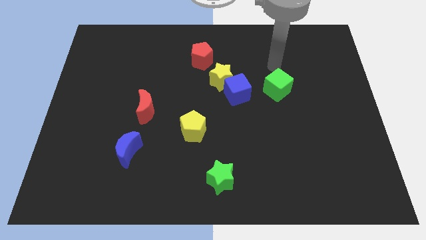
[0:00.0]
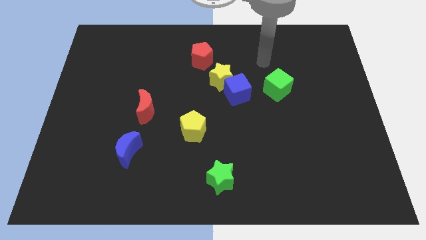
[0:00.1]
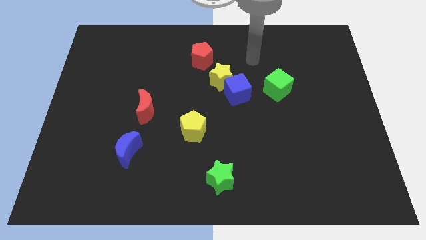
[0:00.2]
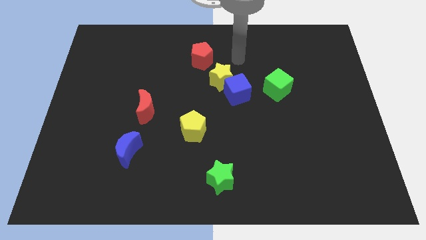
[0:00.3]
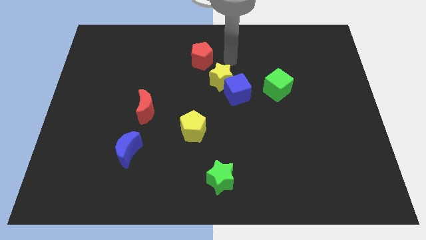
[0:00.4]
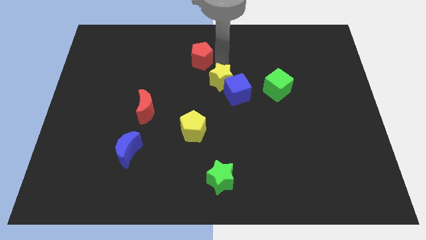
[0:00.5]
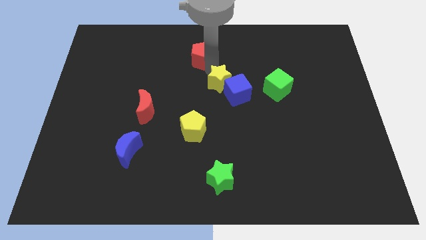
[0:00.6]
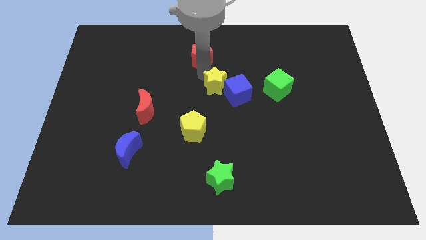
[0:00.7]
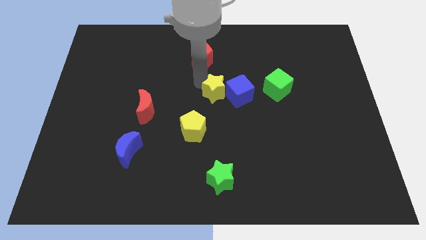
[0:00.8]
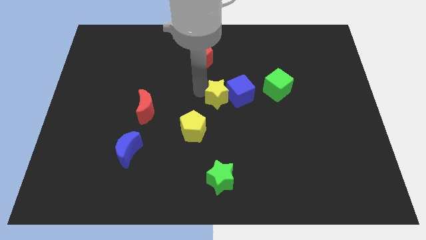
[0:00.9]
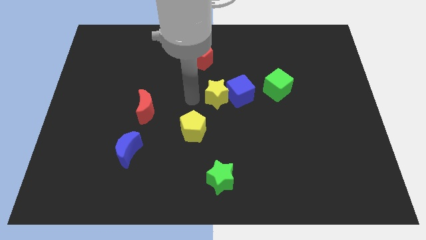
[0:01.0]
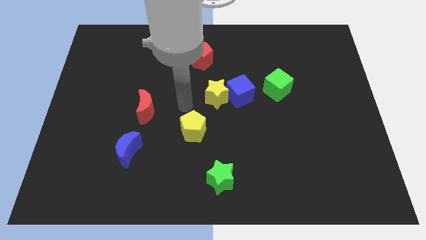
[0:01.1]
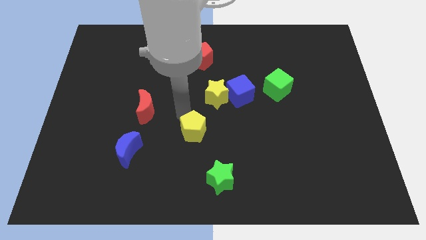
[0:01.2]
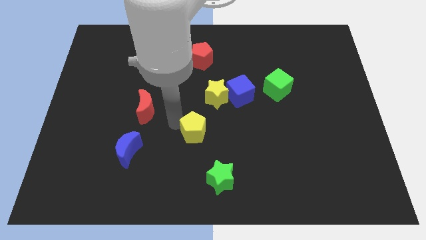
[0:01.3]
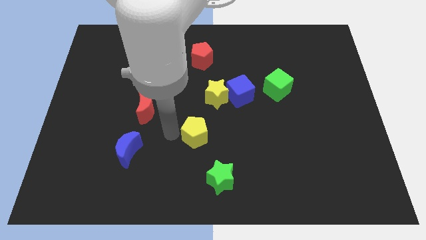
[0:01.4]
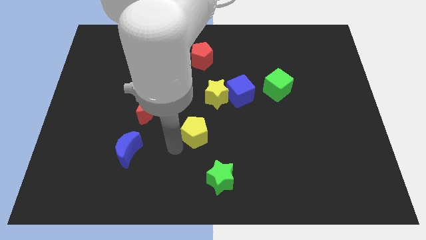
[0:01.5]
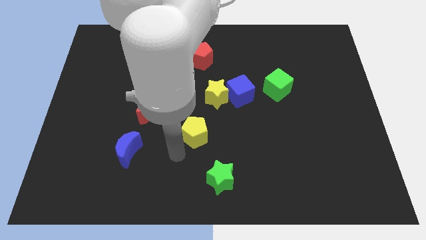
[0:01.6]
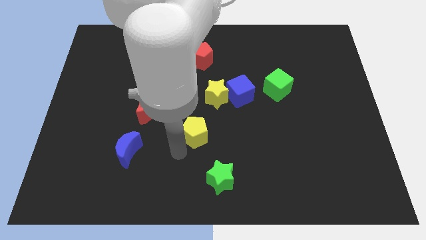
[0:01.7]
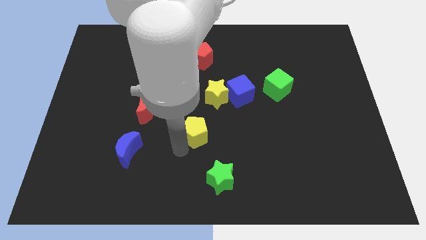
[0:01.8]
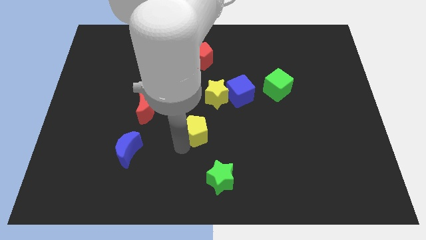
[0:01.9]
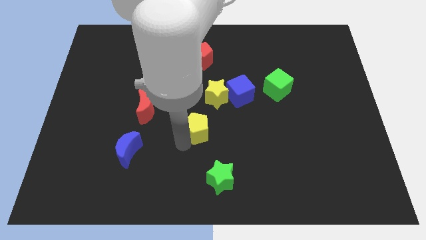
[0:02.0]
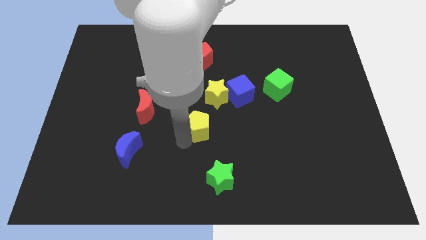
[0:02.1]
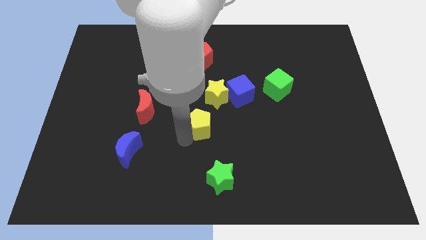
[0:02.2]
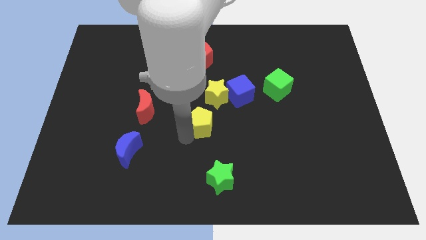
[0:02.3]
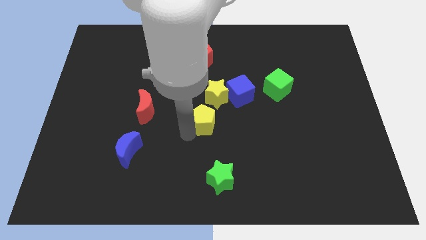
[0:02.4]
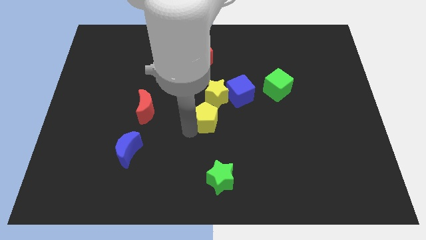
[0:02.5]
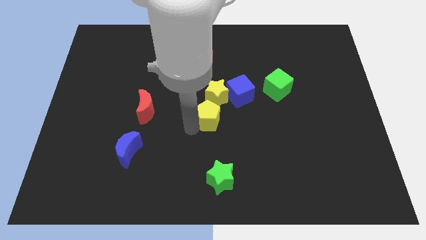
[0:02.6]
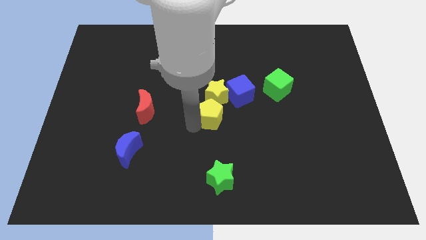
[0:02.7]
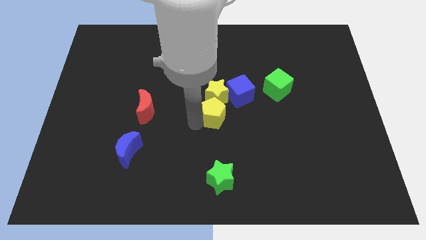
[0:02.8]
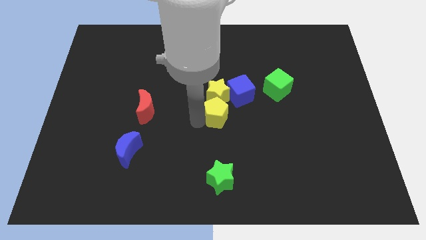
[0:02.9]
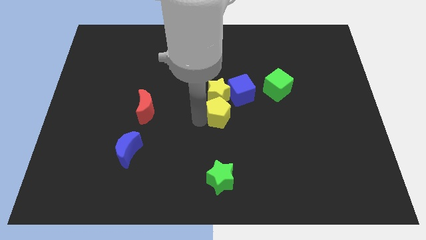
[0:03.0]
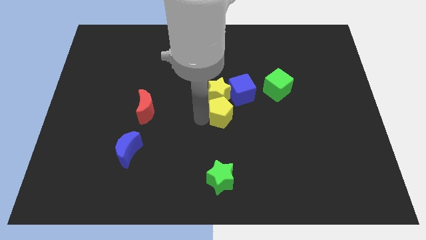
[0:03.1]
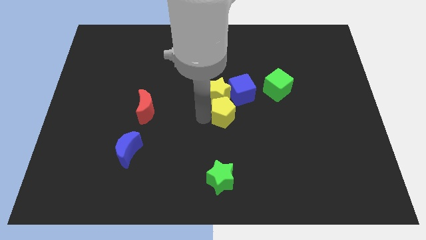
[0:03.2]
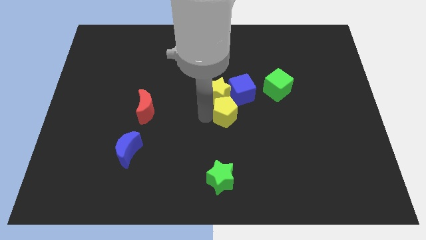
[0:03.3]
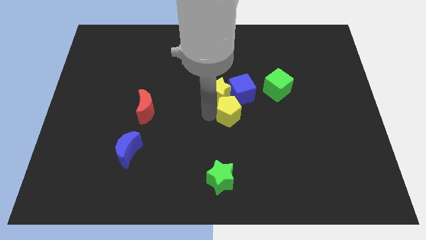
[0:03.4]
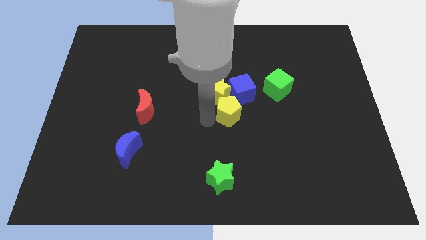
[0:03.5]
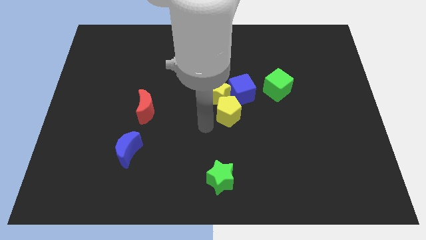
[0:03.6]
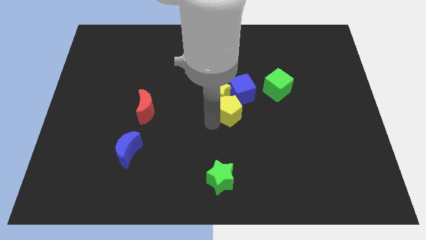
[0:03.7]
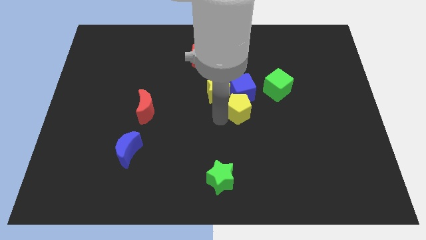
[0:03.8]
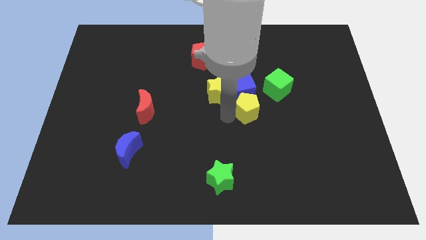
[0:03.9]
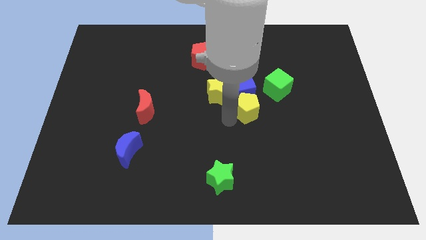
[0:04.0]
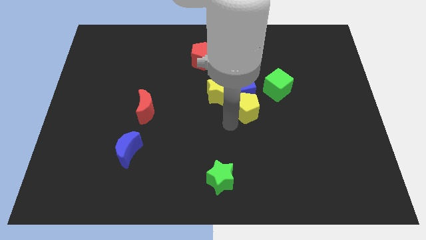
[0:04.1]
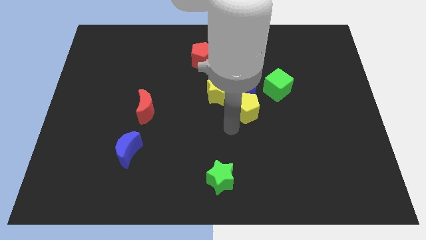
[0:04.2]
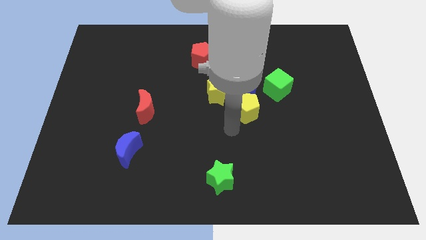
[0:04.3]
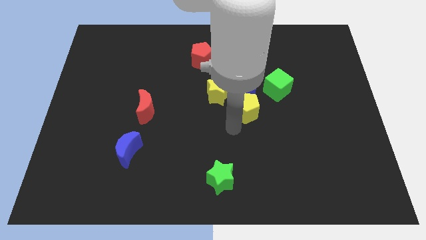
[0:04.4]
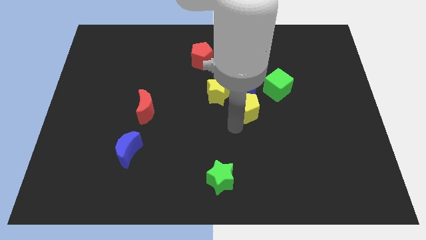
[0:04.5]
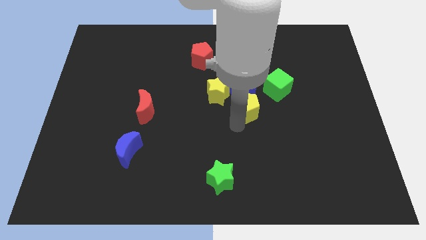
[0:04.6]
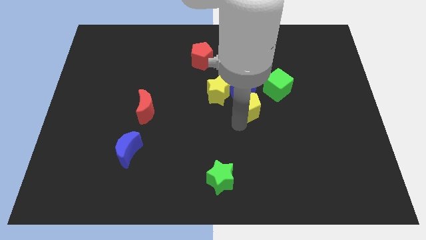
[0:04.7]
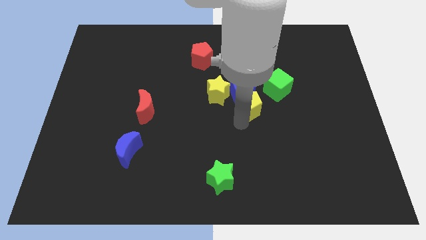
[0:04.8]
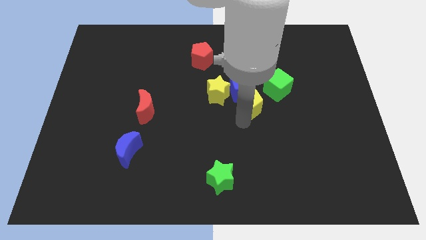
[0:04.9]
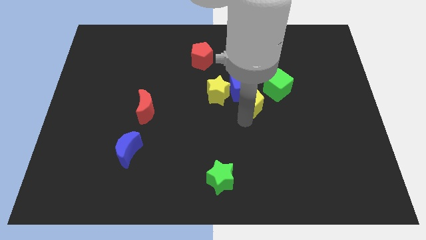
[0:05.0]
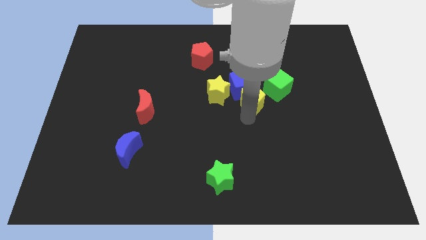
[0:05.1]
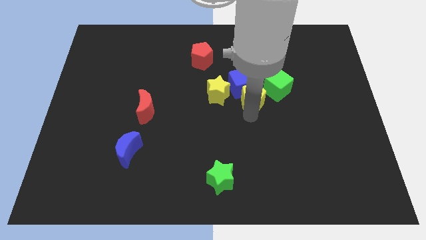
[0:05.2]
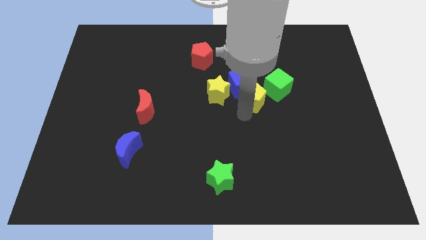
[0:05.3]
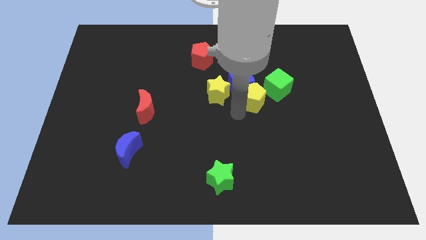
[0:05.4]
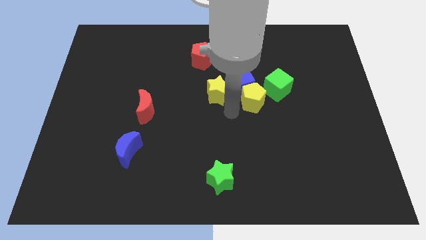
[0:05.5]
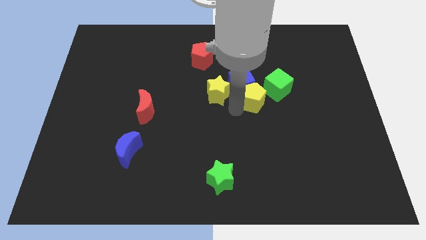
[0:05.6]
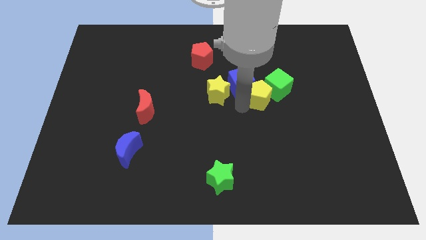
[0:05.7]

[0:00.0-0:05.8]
move the yellow pentagon towards the green cube

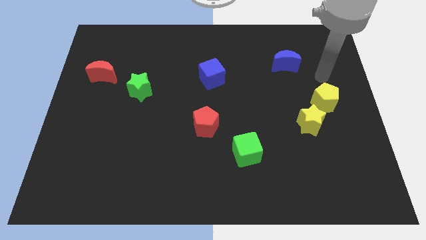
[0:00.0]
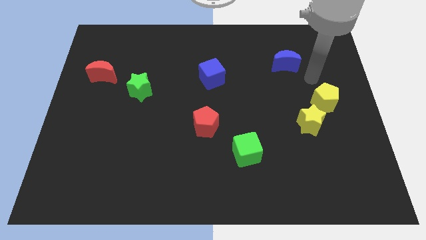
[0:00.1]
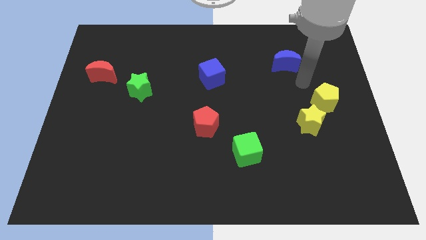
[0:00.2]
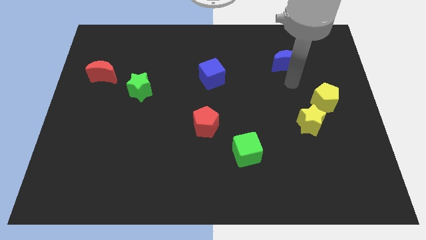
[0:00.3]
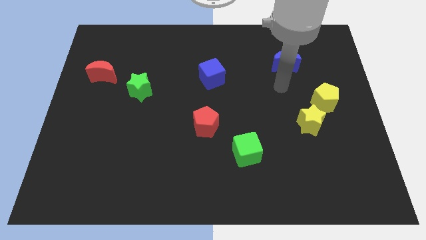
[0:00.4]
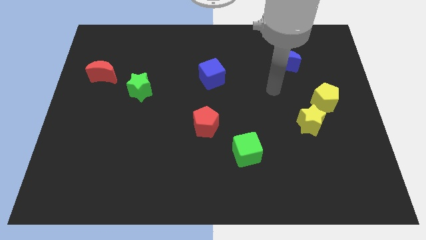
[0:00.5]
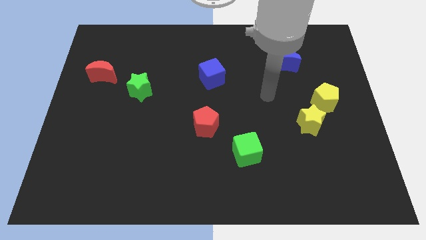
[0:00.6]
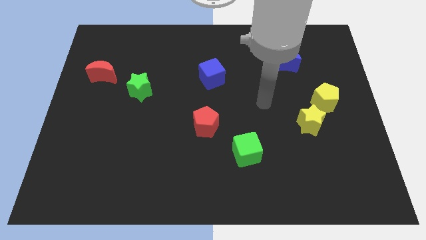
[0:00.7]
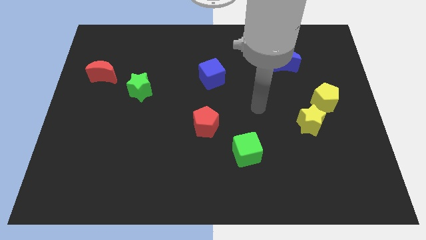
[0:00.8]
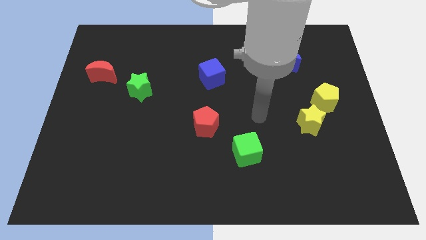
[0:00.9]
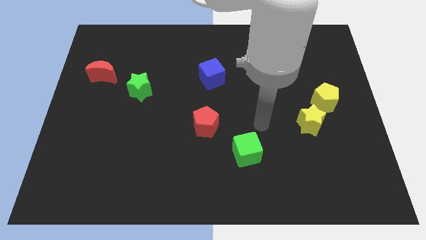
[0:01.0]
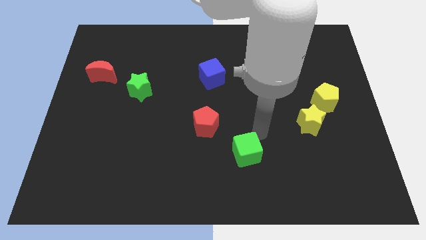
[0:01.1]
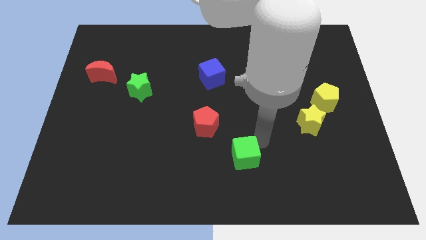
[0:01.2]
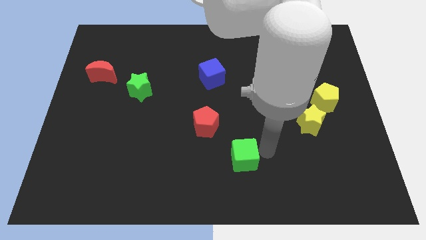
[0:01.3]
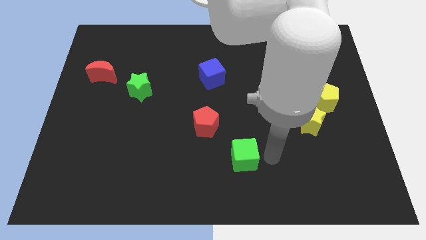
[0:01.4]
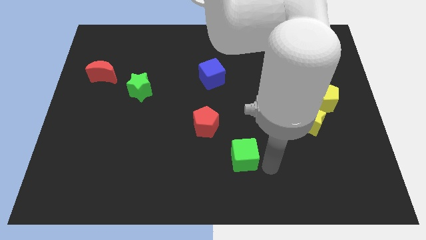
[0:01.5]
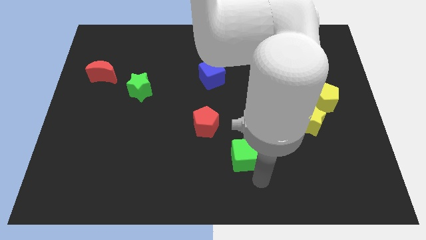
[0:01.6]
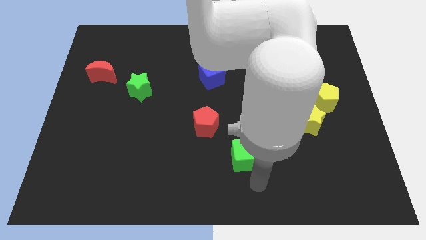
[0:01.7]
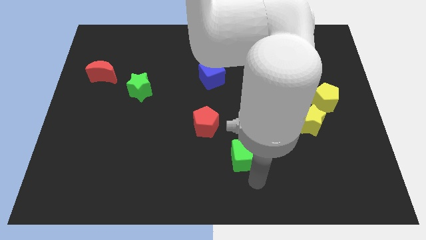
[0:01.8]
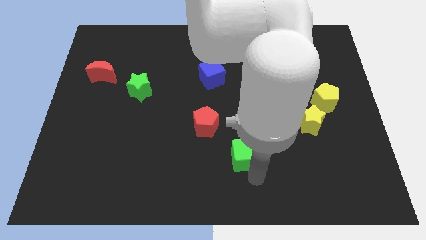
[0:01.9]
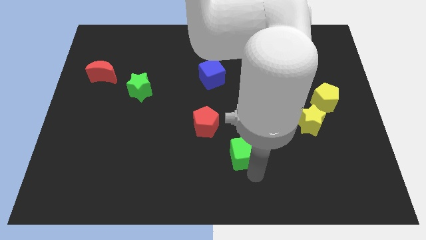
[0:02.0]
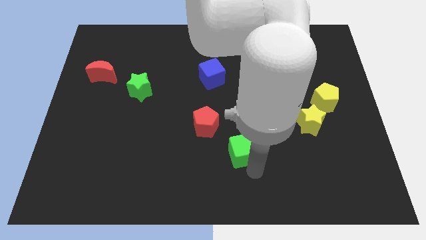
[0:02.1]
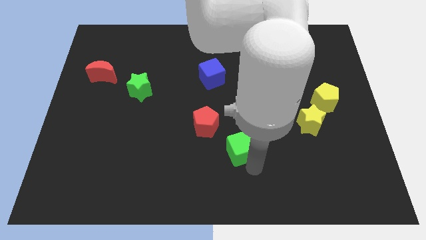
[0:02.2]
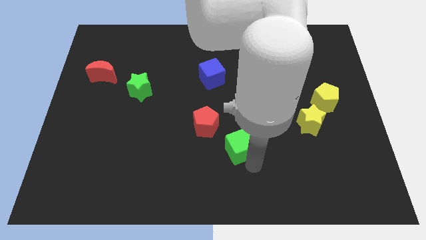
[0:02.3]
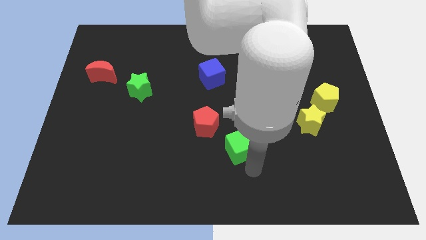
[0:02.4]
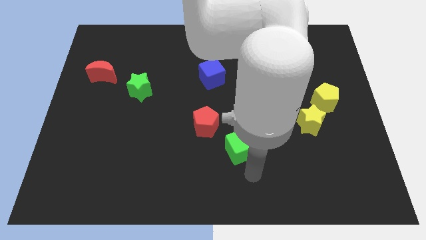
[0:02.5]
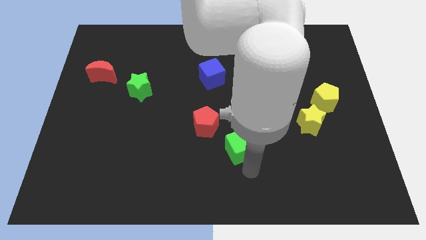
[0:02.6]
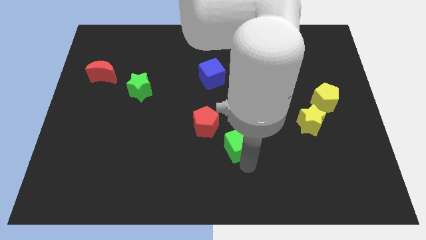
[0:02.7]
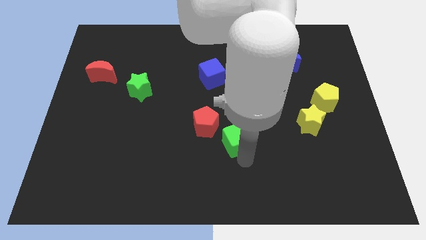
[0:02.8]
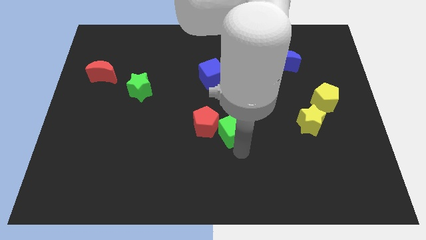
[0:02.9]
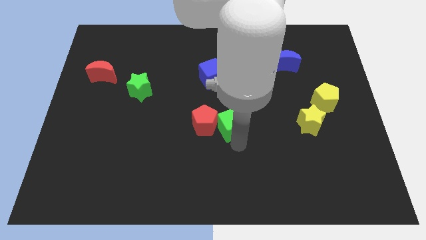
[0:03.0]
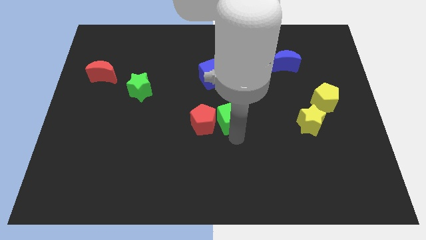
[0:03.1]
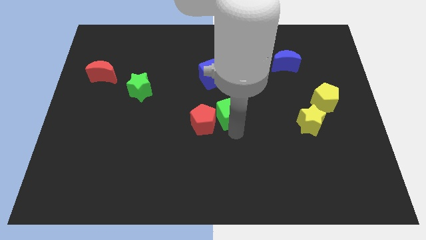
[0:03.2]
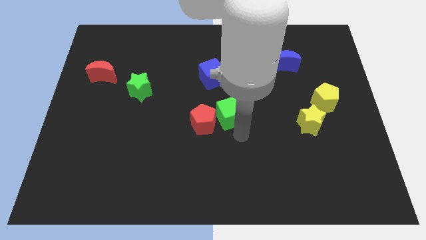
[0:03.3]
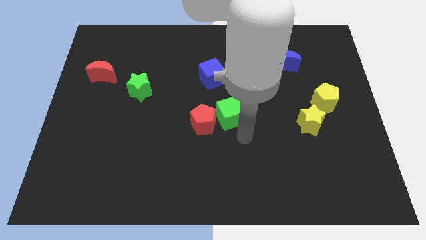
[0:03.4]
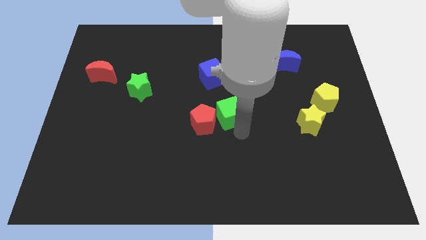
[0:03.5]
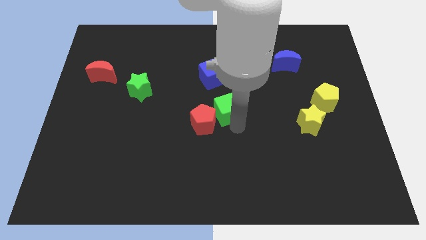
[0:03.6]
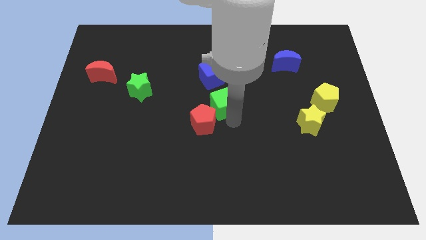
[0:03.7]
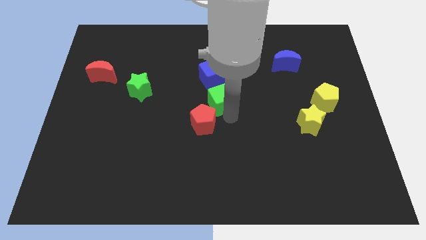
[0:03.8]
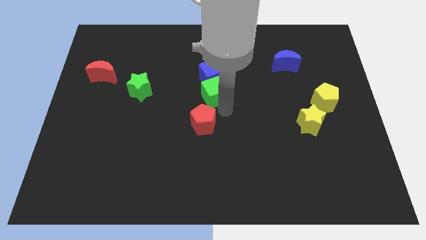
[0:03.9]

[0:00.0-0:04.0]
slide the green cube close to the blue cube
